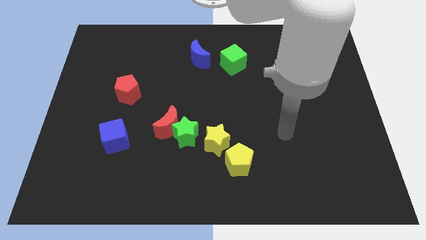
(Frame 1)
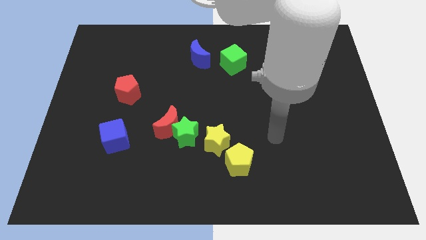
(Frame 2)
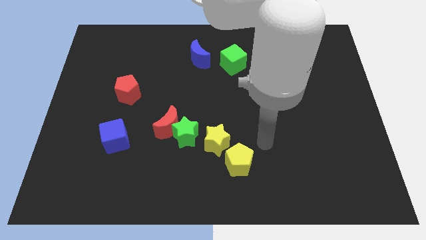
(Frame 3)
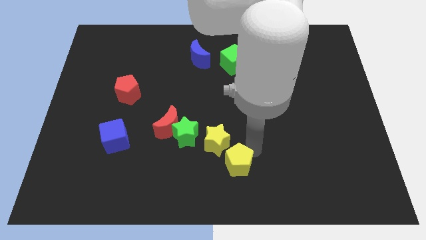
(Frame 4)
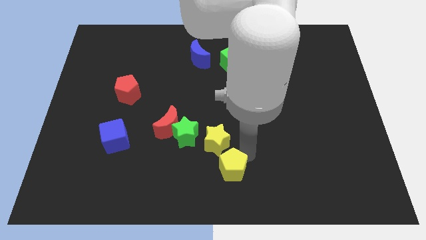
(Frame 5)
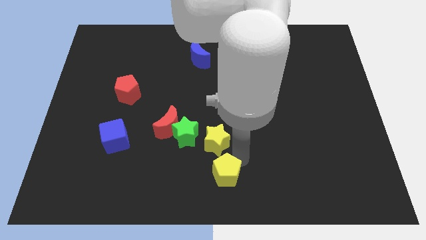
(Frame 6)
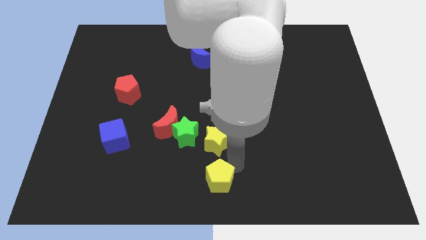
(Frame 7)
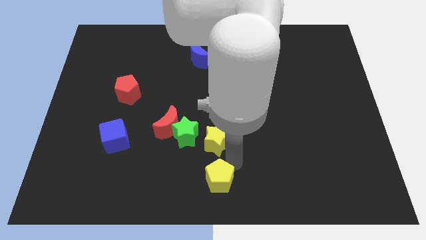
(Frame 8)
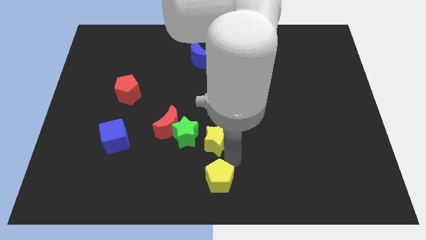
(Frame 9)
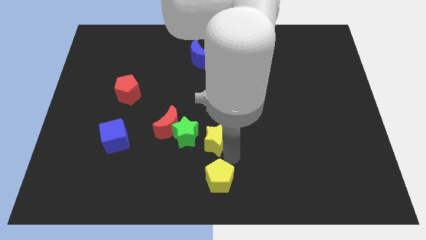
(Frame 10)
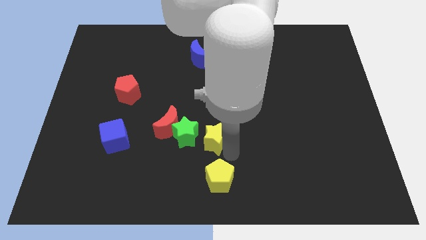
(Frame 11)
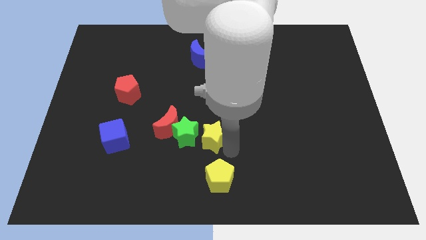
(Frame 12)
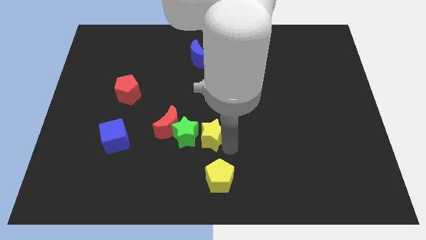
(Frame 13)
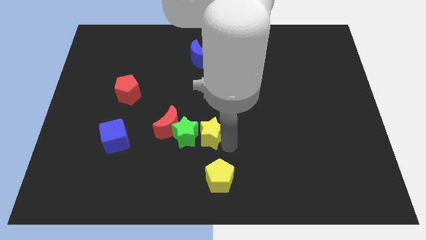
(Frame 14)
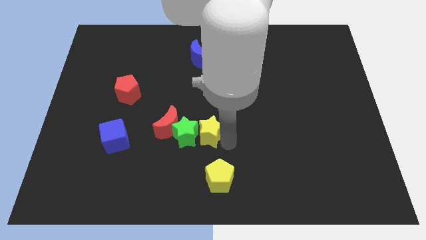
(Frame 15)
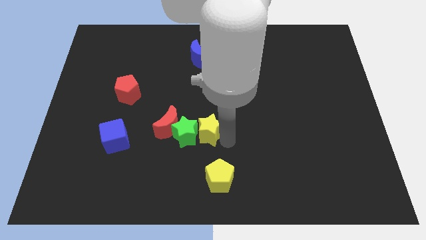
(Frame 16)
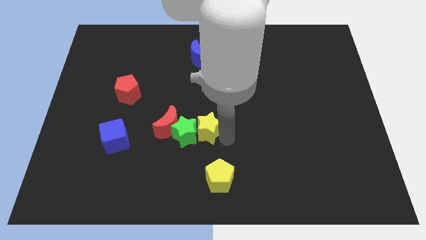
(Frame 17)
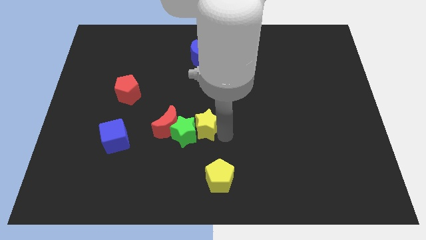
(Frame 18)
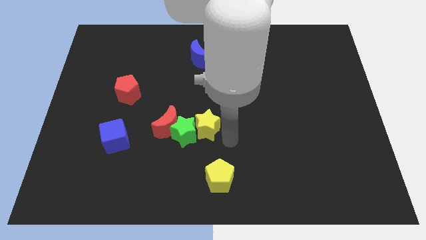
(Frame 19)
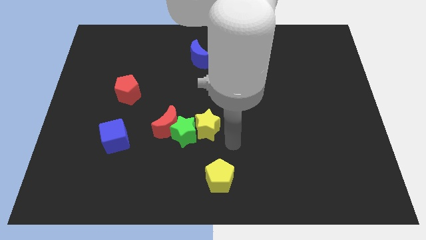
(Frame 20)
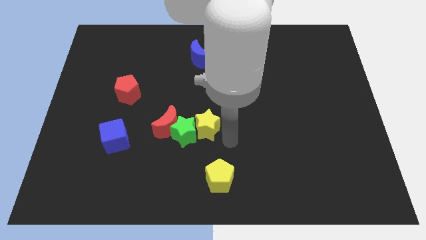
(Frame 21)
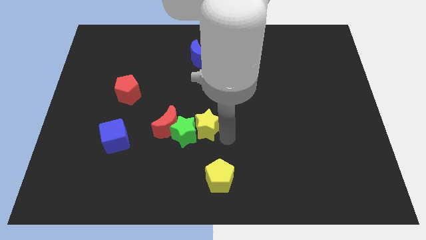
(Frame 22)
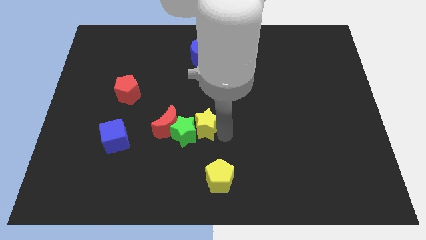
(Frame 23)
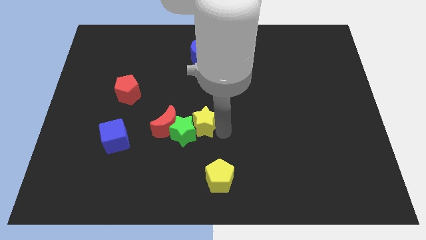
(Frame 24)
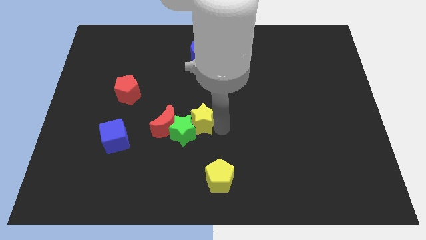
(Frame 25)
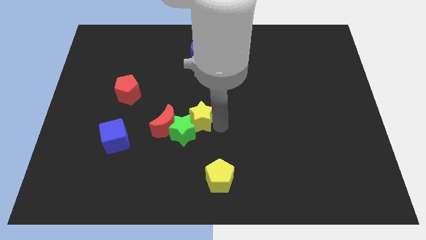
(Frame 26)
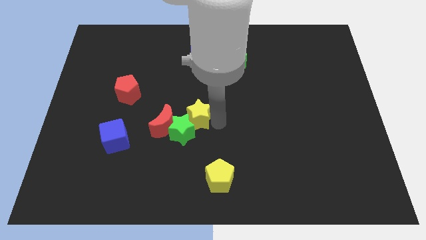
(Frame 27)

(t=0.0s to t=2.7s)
slightly push the yellow star up and to the left

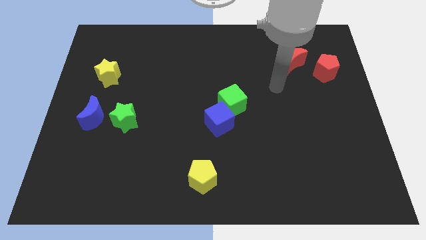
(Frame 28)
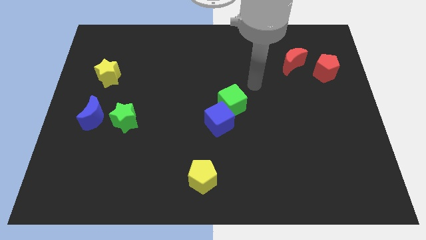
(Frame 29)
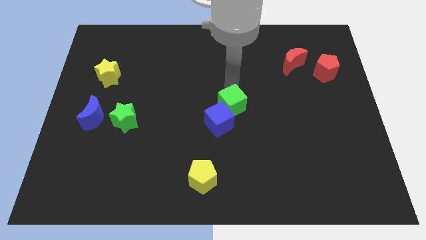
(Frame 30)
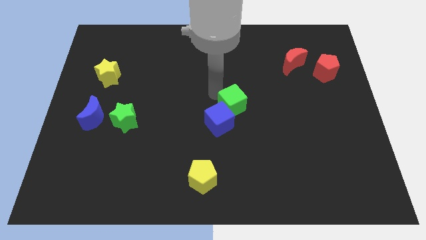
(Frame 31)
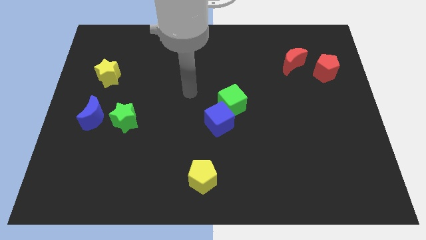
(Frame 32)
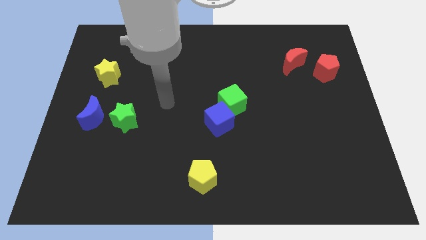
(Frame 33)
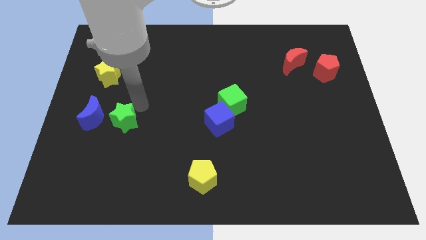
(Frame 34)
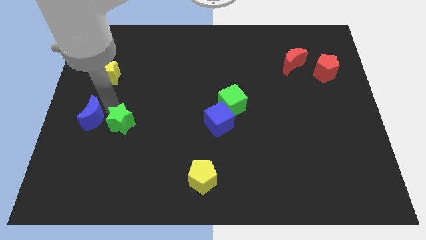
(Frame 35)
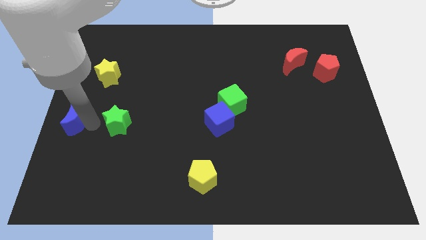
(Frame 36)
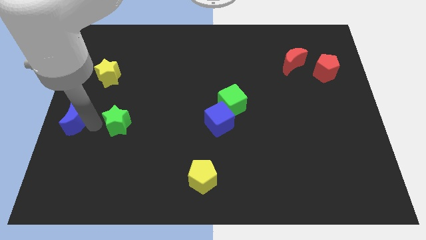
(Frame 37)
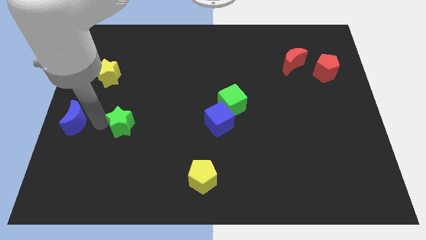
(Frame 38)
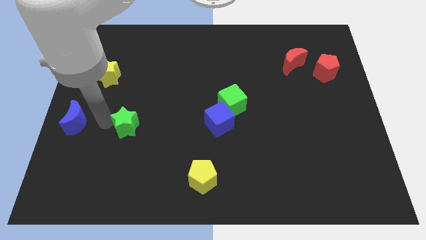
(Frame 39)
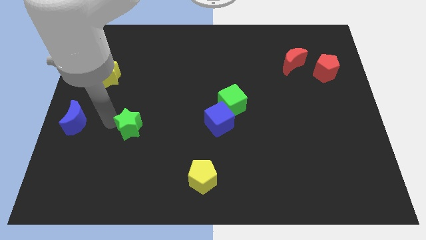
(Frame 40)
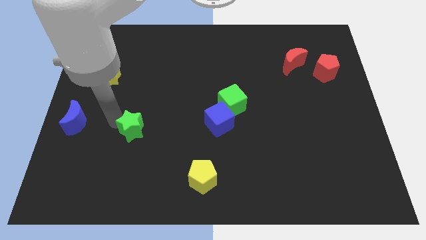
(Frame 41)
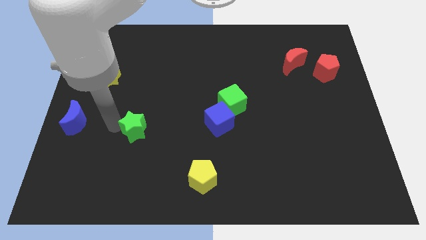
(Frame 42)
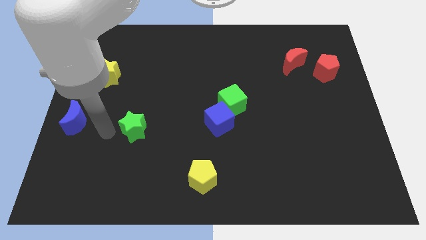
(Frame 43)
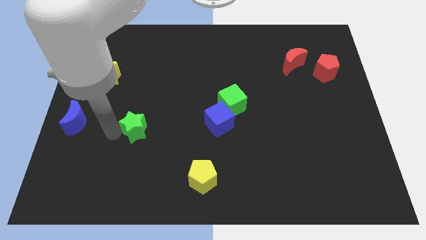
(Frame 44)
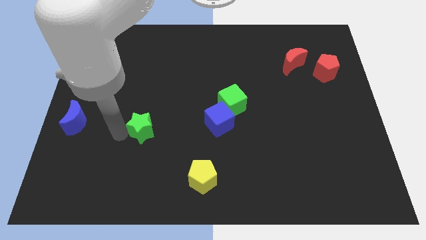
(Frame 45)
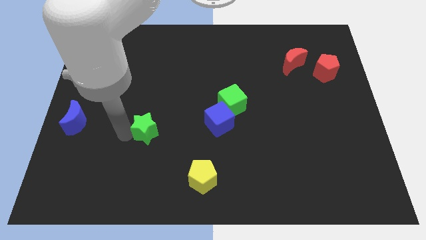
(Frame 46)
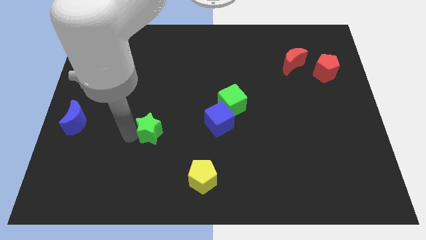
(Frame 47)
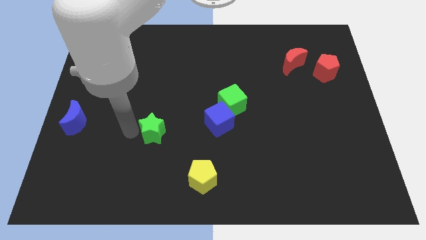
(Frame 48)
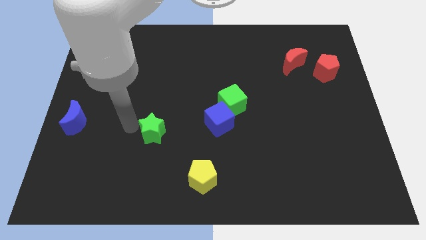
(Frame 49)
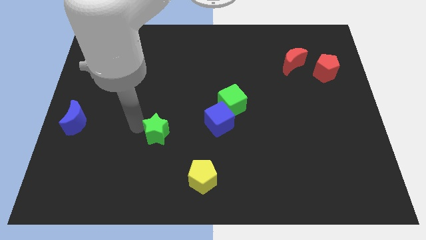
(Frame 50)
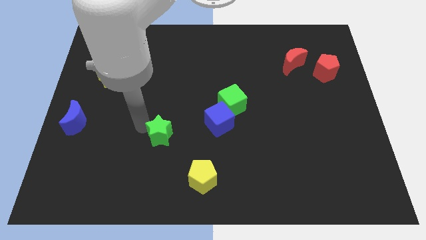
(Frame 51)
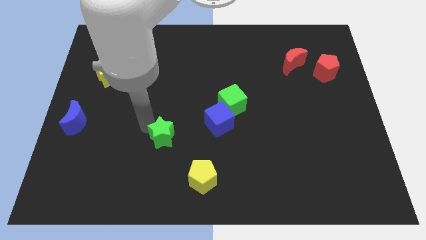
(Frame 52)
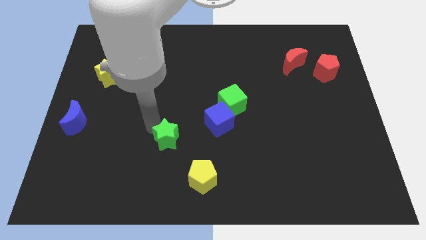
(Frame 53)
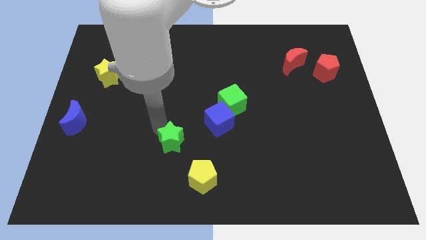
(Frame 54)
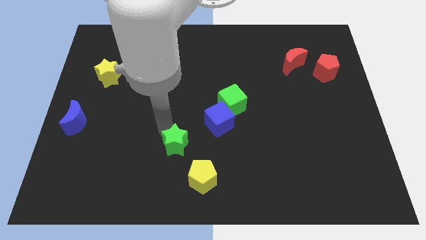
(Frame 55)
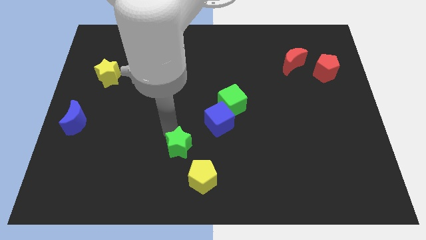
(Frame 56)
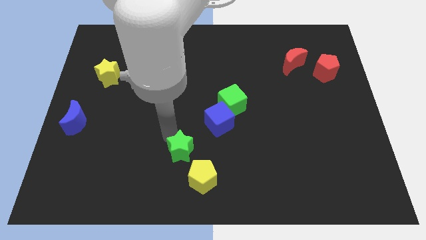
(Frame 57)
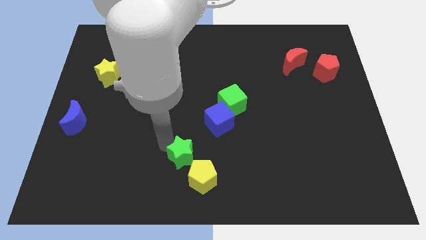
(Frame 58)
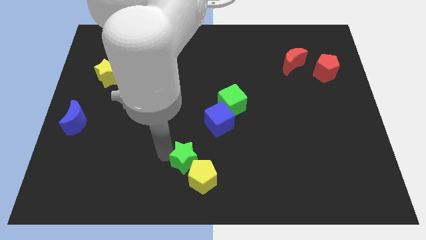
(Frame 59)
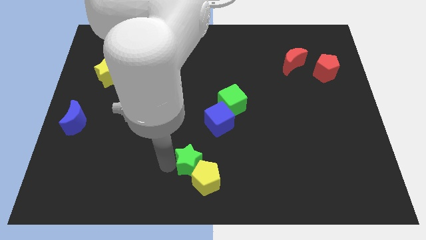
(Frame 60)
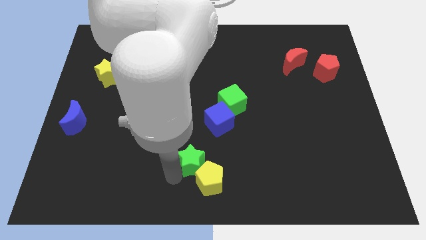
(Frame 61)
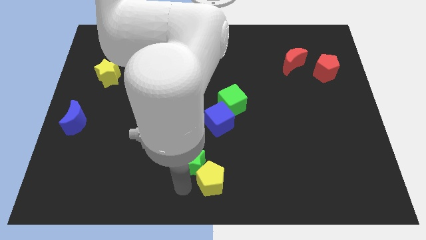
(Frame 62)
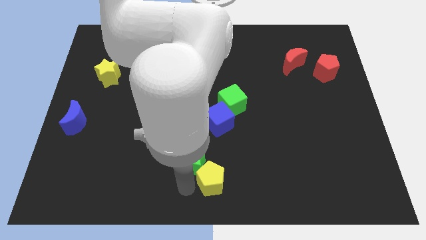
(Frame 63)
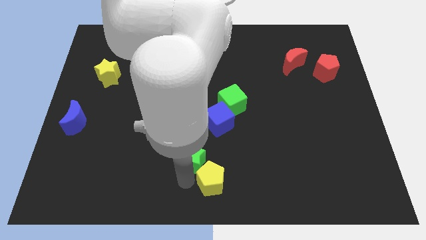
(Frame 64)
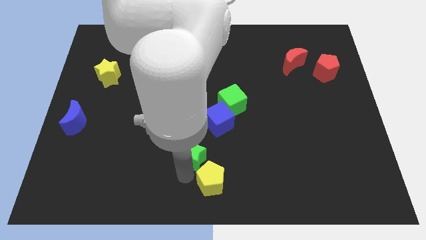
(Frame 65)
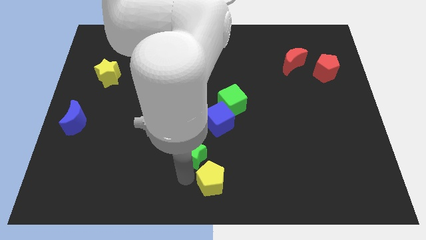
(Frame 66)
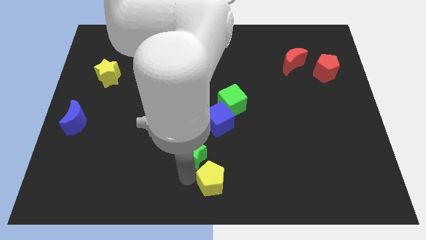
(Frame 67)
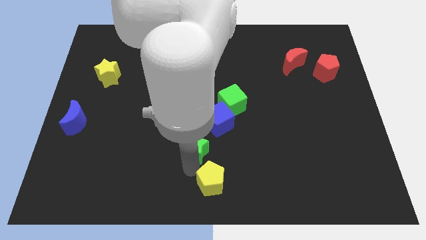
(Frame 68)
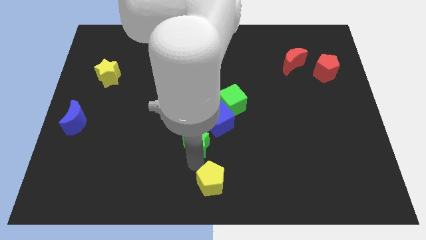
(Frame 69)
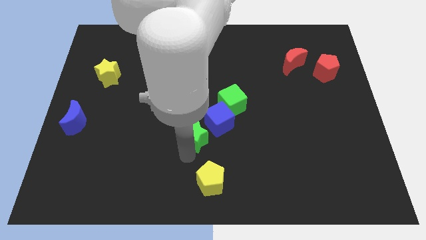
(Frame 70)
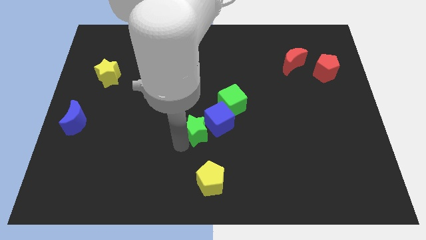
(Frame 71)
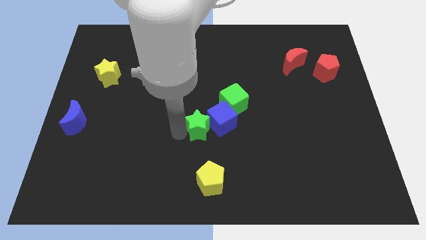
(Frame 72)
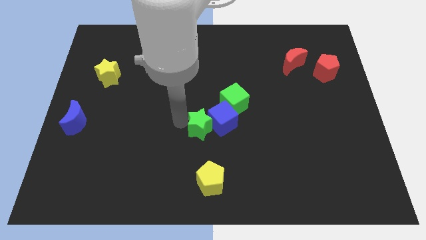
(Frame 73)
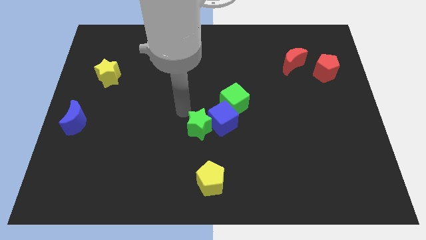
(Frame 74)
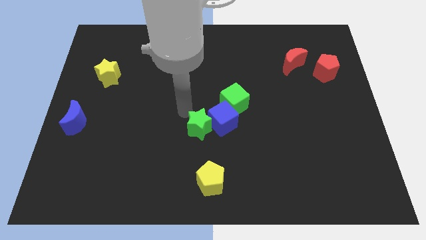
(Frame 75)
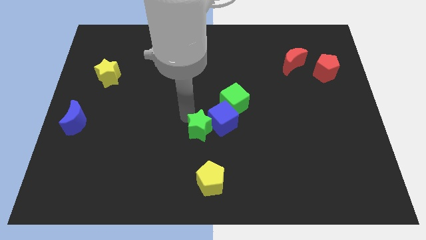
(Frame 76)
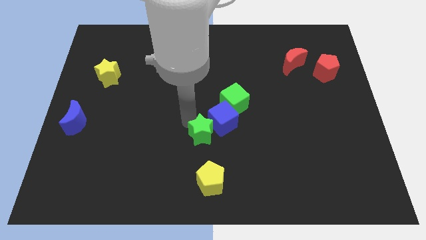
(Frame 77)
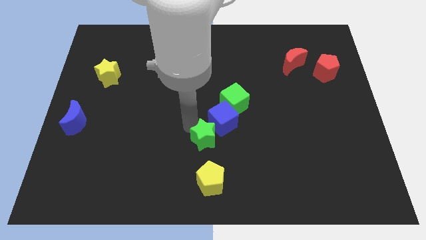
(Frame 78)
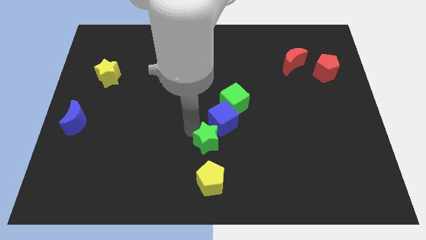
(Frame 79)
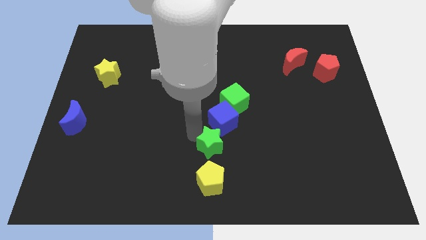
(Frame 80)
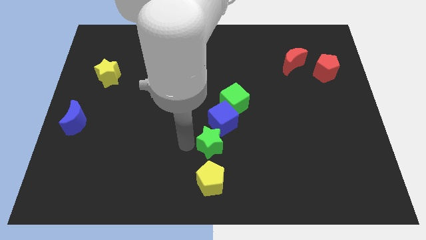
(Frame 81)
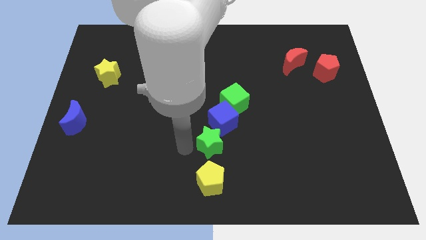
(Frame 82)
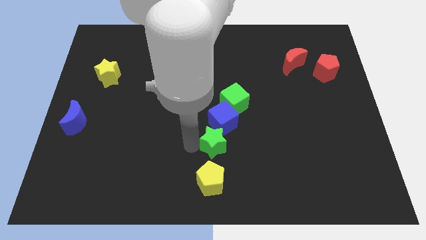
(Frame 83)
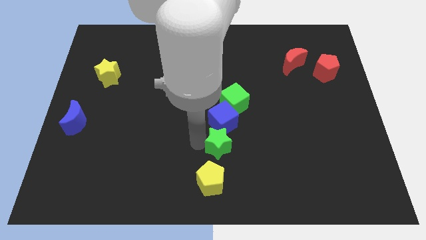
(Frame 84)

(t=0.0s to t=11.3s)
move the green star right
